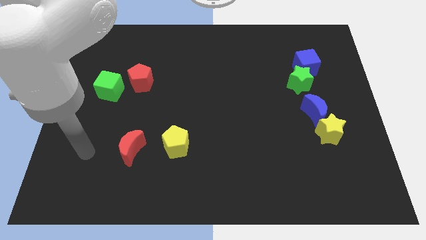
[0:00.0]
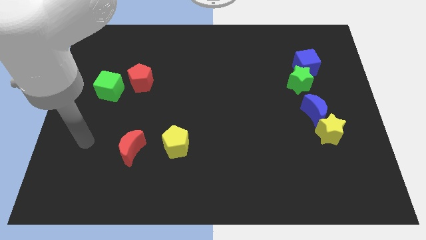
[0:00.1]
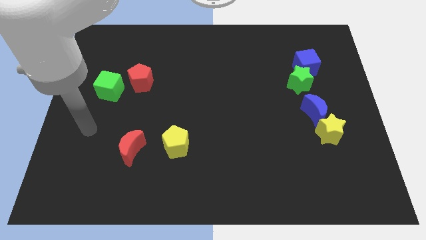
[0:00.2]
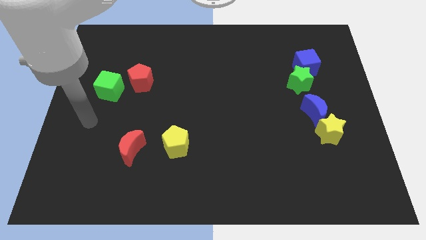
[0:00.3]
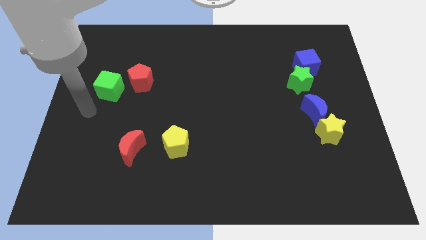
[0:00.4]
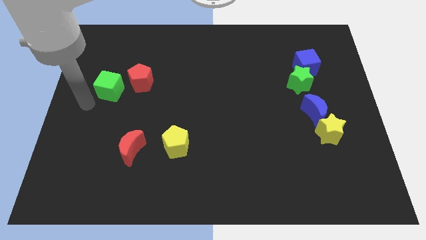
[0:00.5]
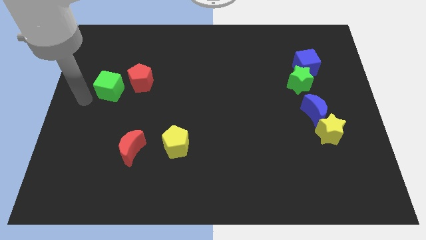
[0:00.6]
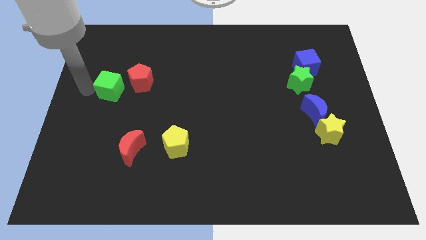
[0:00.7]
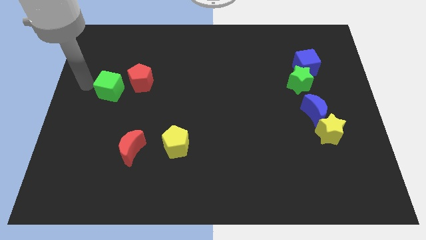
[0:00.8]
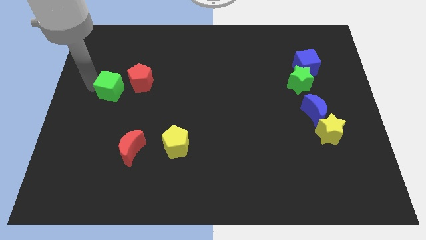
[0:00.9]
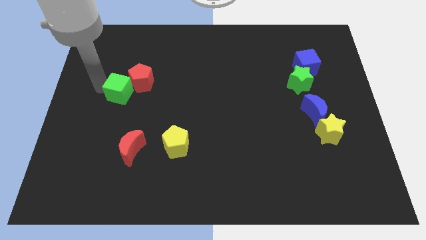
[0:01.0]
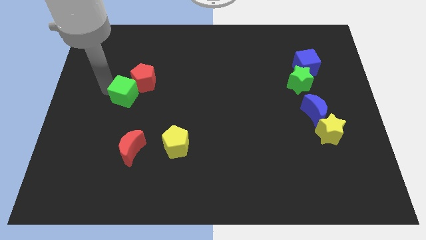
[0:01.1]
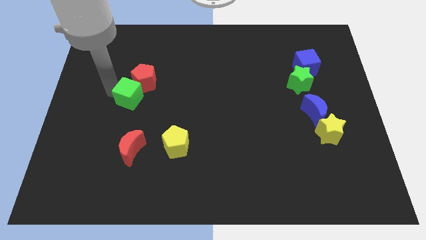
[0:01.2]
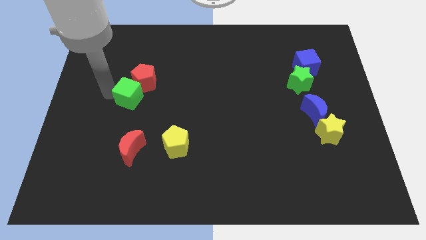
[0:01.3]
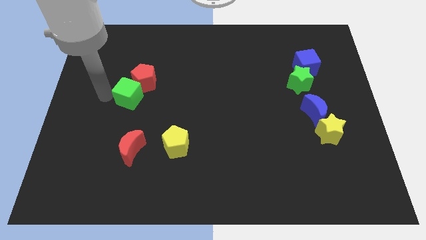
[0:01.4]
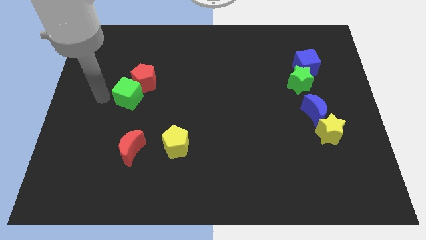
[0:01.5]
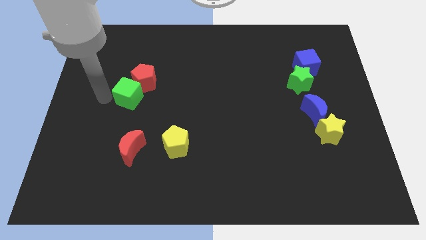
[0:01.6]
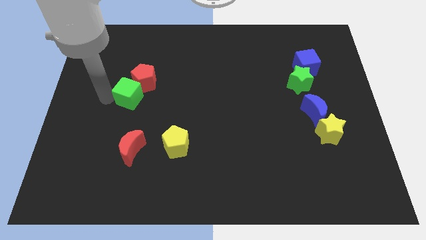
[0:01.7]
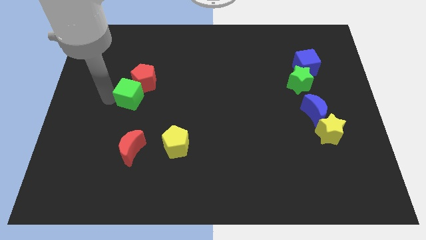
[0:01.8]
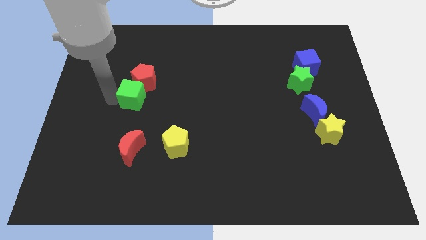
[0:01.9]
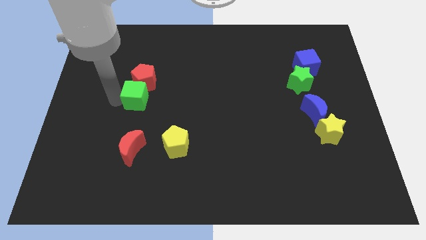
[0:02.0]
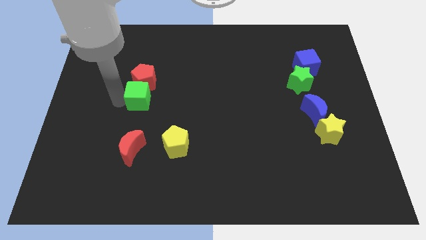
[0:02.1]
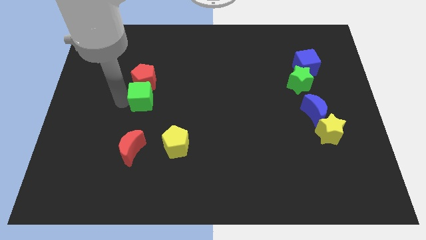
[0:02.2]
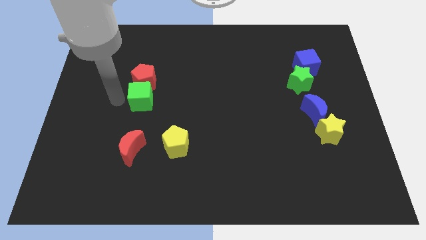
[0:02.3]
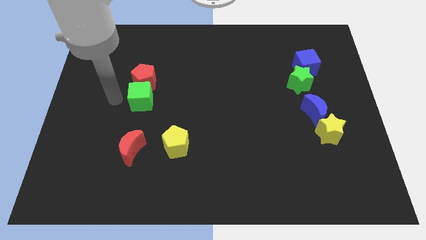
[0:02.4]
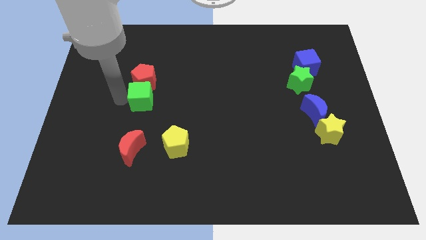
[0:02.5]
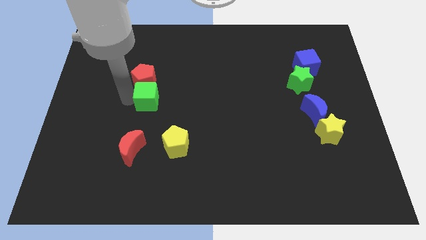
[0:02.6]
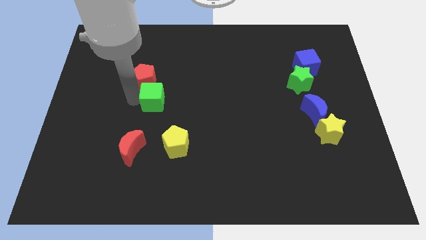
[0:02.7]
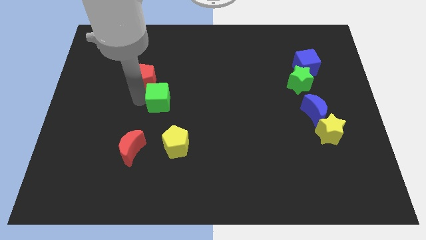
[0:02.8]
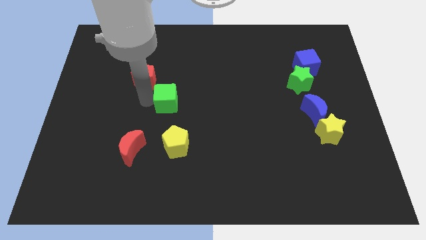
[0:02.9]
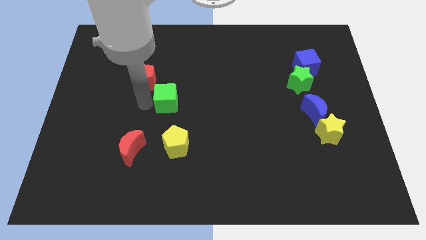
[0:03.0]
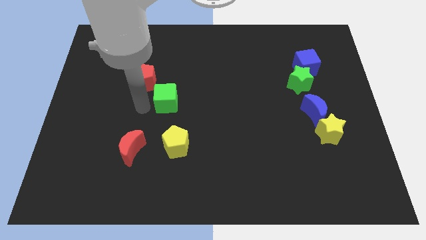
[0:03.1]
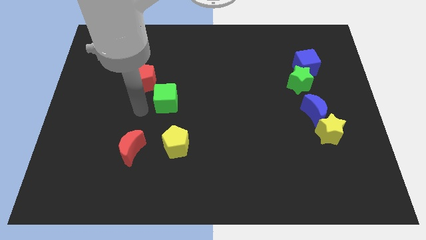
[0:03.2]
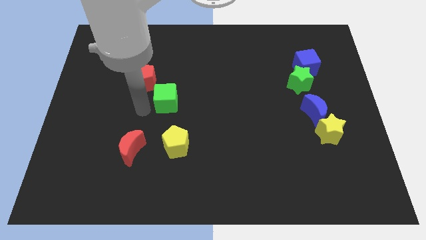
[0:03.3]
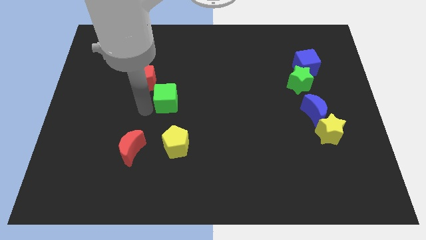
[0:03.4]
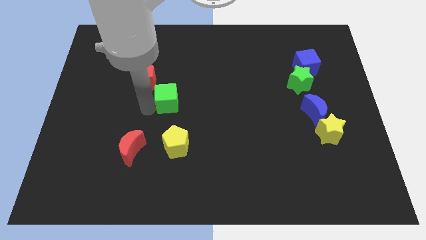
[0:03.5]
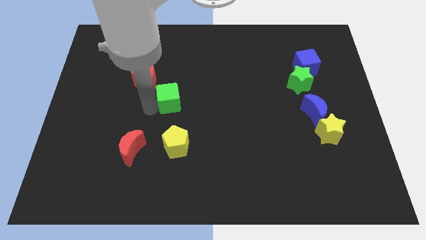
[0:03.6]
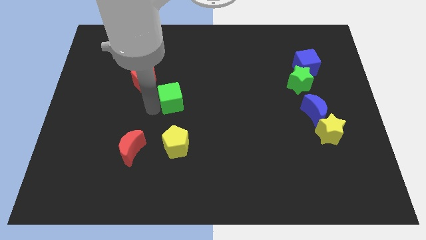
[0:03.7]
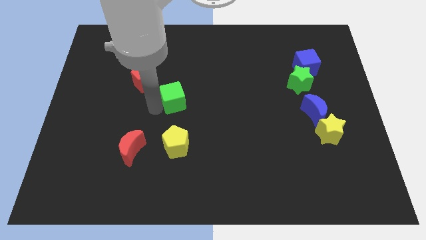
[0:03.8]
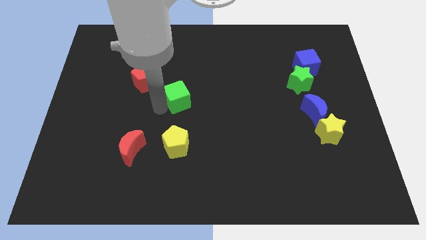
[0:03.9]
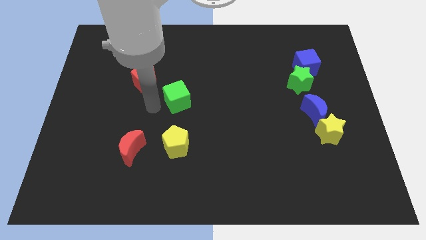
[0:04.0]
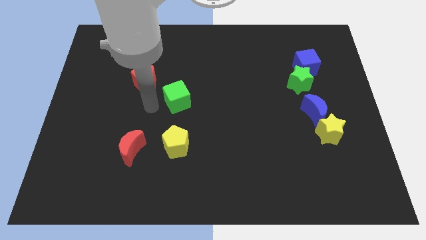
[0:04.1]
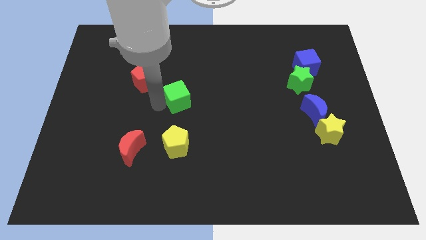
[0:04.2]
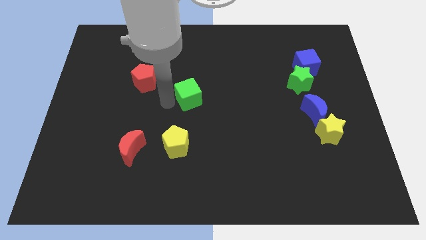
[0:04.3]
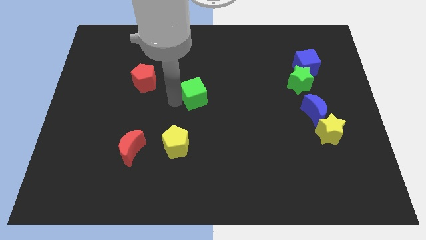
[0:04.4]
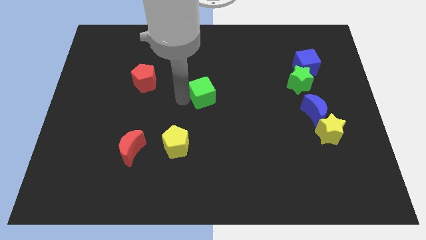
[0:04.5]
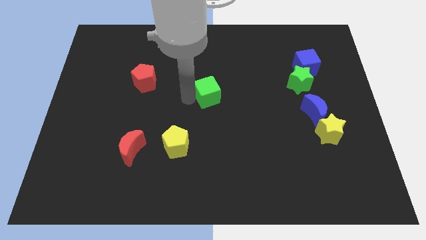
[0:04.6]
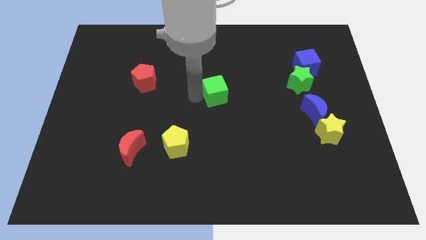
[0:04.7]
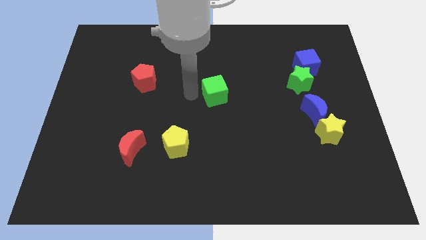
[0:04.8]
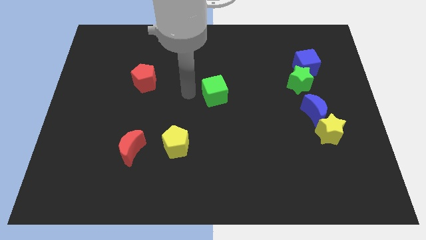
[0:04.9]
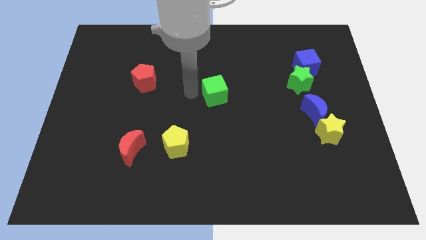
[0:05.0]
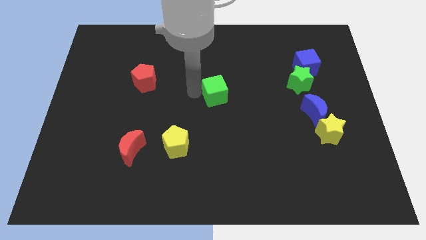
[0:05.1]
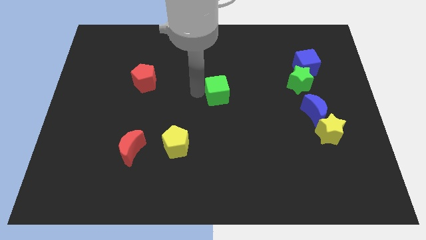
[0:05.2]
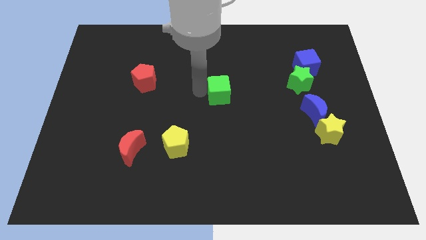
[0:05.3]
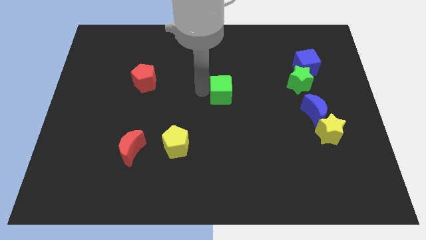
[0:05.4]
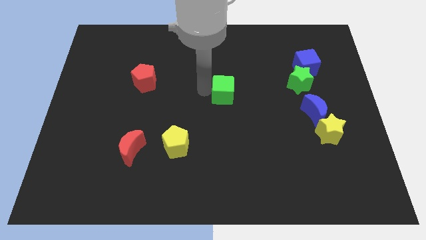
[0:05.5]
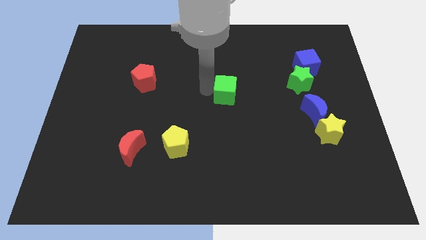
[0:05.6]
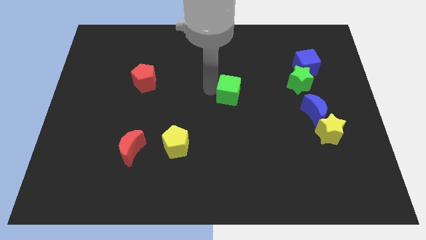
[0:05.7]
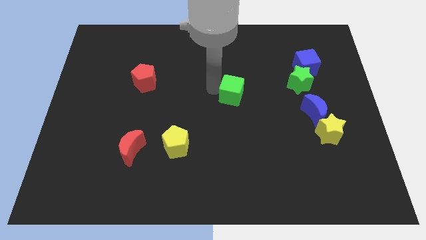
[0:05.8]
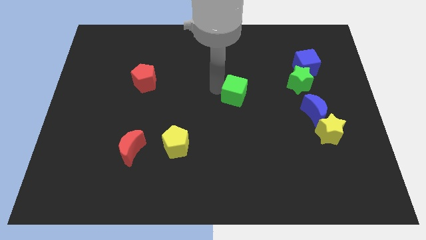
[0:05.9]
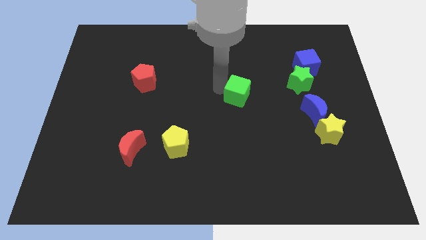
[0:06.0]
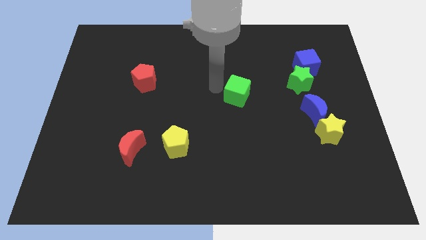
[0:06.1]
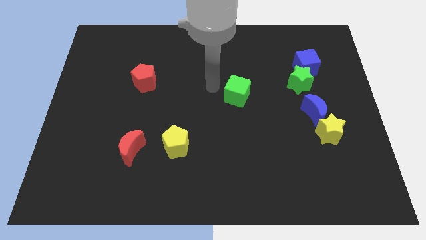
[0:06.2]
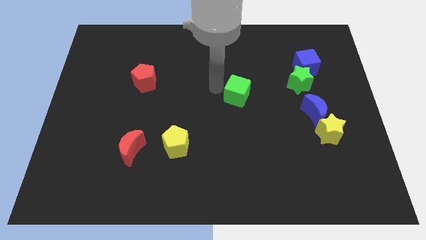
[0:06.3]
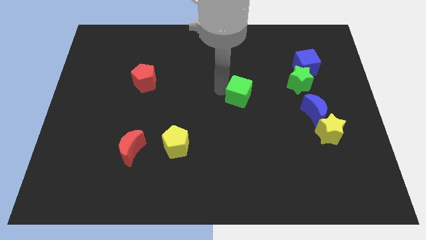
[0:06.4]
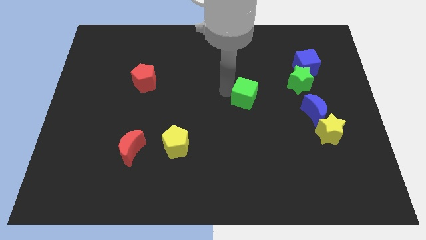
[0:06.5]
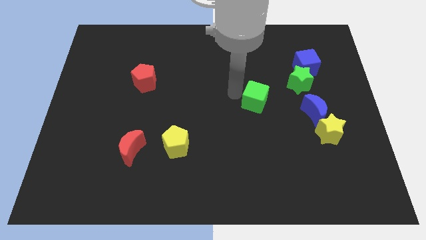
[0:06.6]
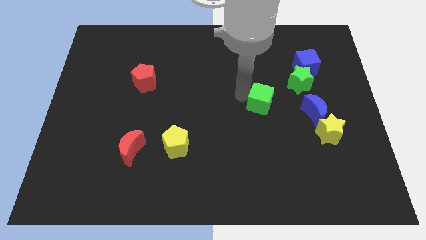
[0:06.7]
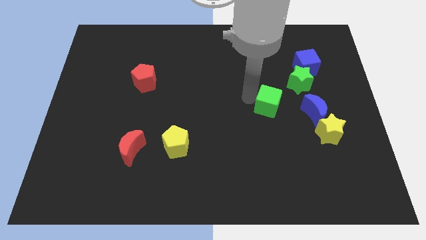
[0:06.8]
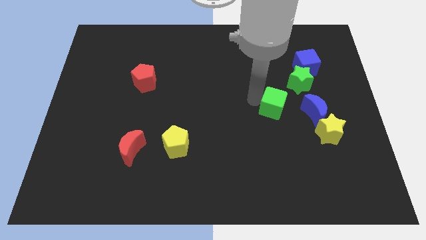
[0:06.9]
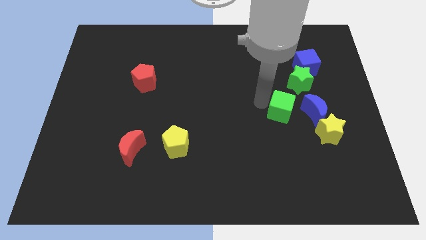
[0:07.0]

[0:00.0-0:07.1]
put the green cube to the top left of the yellow star
